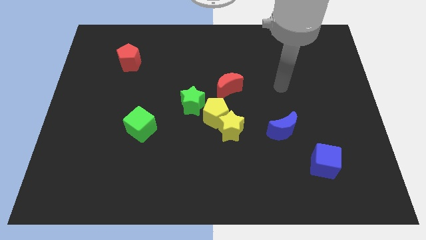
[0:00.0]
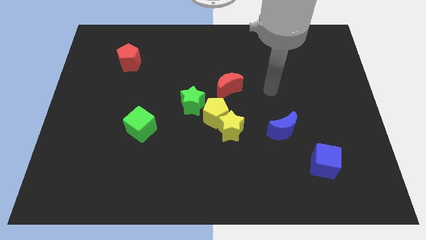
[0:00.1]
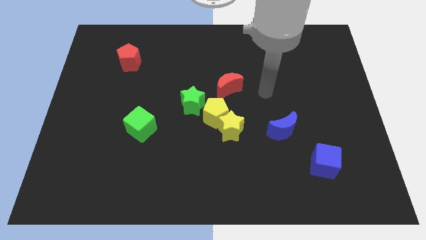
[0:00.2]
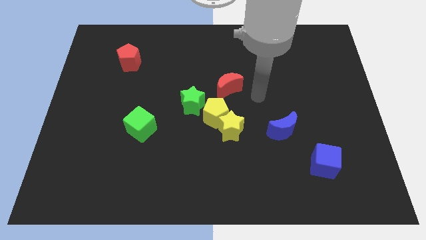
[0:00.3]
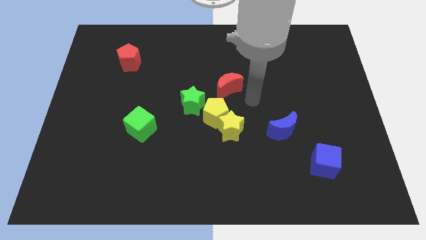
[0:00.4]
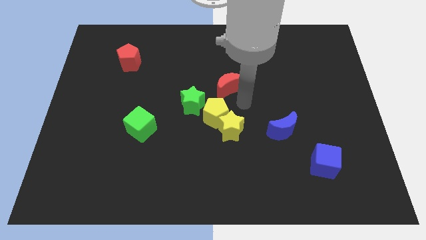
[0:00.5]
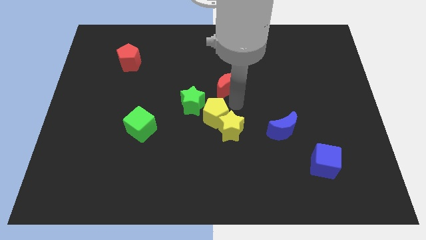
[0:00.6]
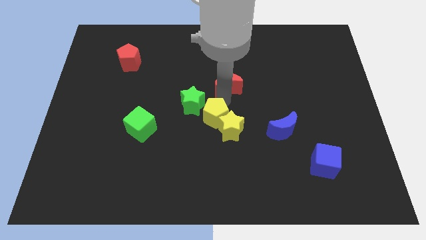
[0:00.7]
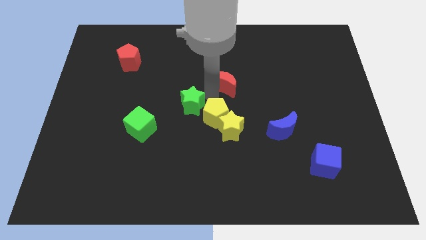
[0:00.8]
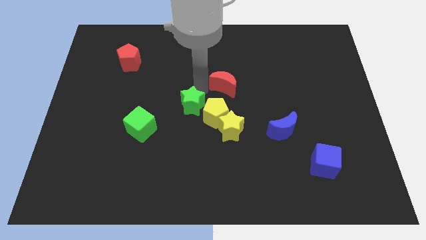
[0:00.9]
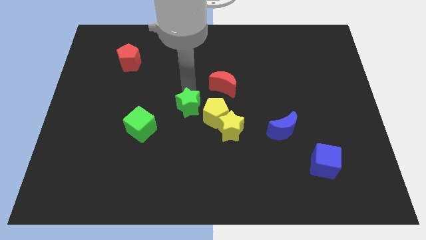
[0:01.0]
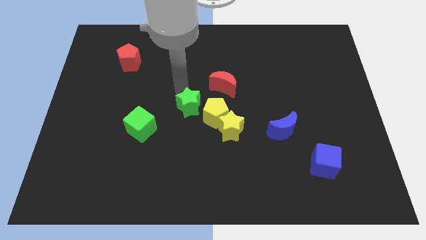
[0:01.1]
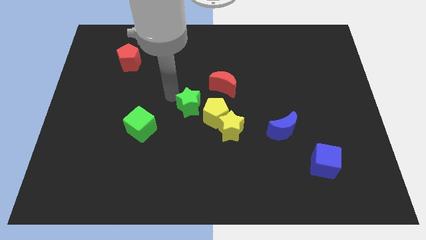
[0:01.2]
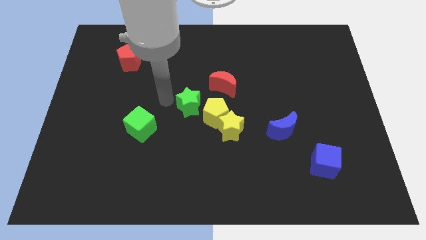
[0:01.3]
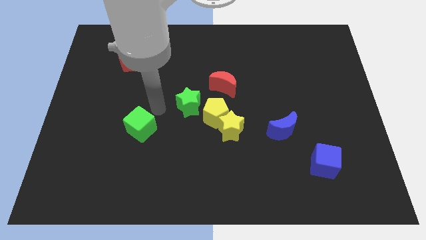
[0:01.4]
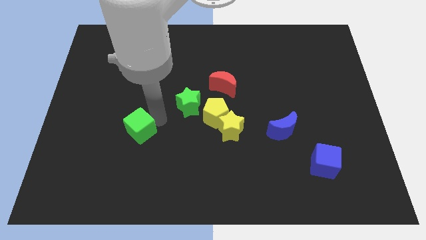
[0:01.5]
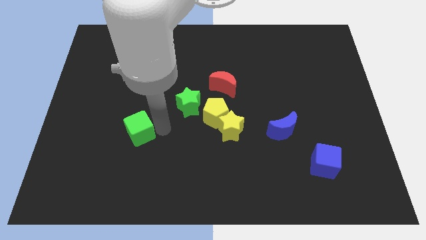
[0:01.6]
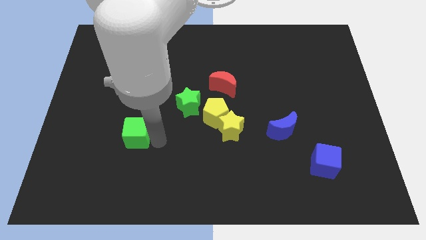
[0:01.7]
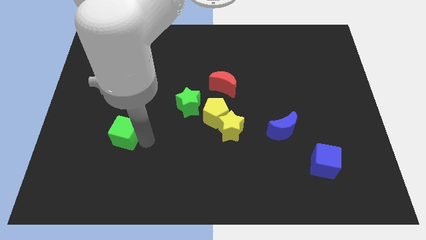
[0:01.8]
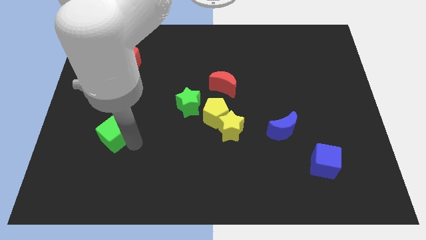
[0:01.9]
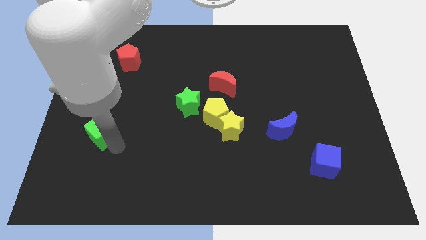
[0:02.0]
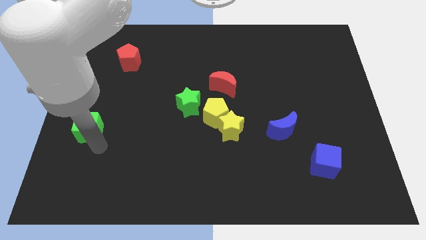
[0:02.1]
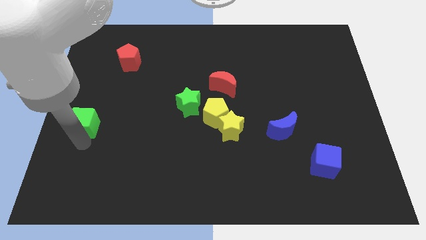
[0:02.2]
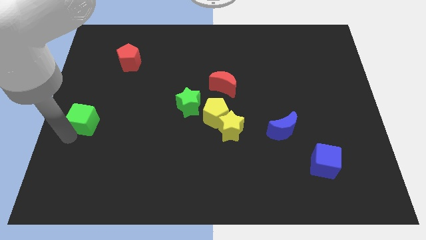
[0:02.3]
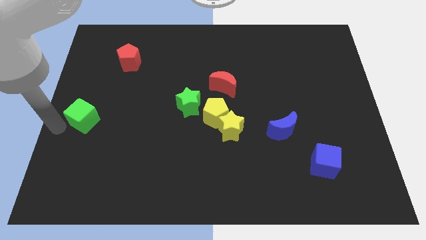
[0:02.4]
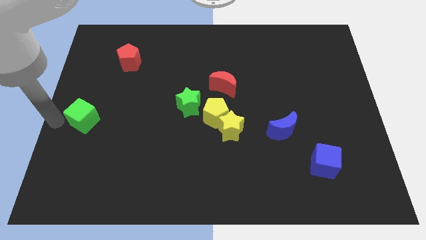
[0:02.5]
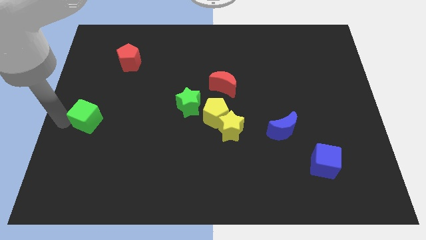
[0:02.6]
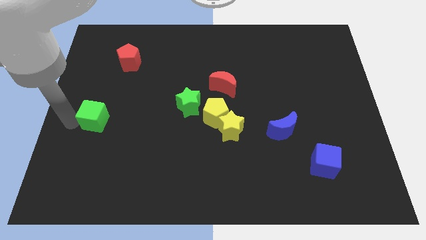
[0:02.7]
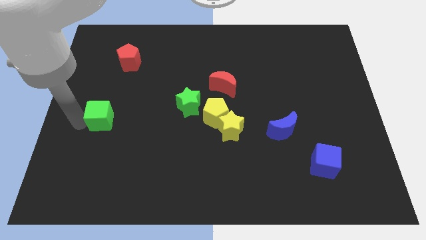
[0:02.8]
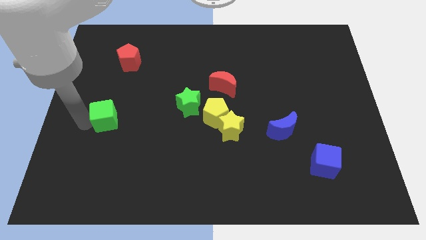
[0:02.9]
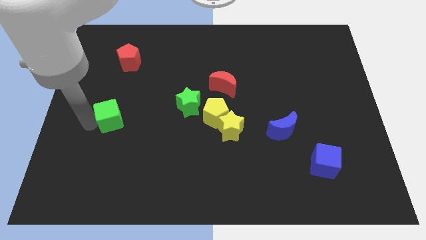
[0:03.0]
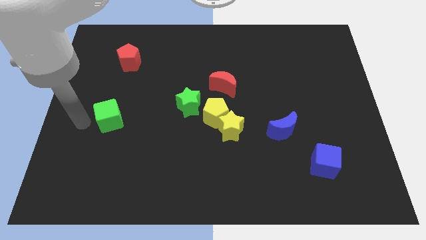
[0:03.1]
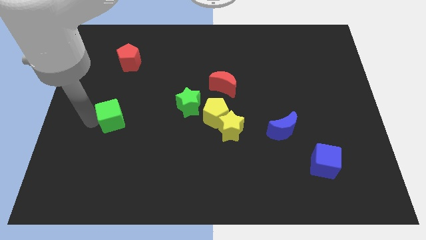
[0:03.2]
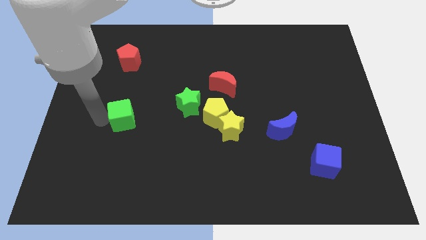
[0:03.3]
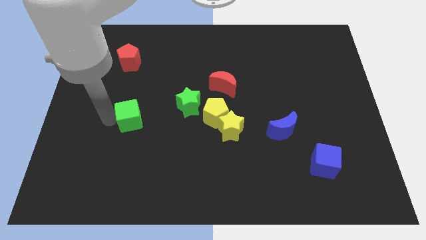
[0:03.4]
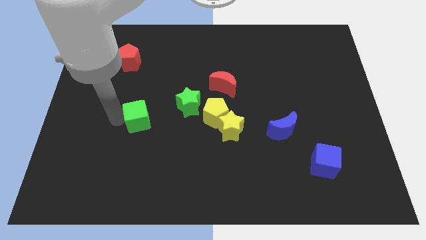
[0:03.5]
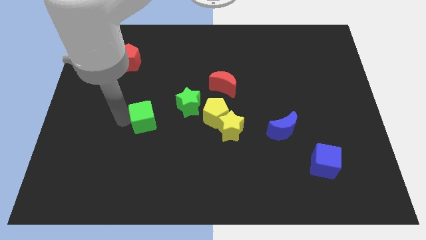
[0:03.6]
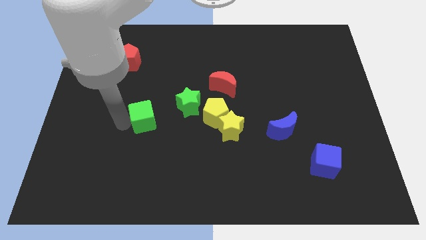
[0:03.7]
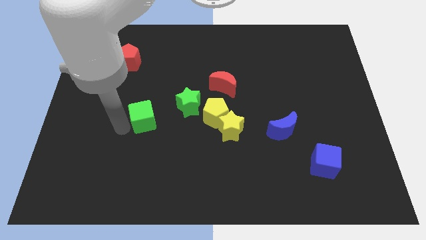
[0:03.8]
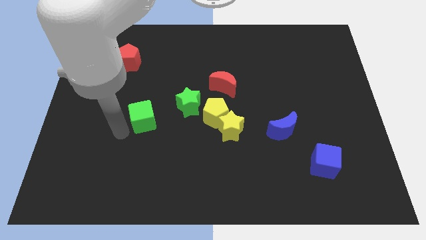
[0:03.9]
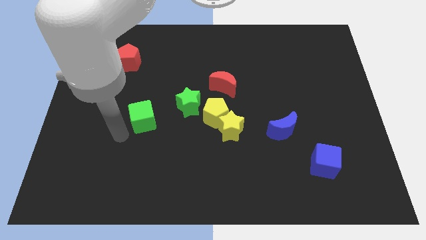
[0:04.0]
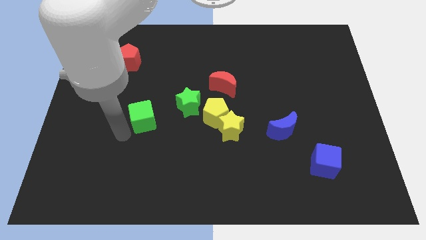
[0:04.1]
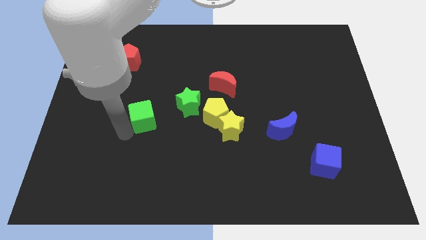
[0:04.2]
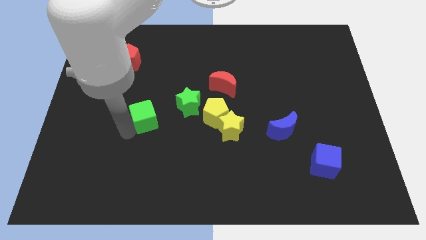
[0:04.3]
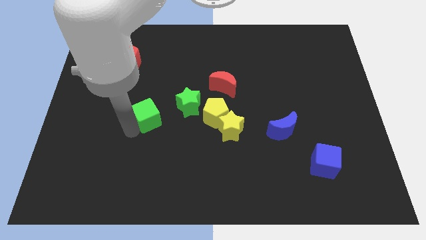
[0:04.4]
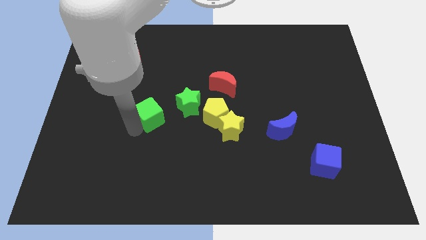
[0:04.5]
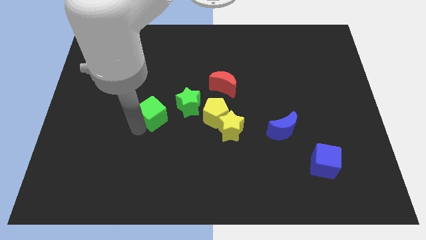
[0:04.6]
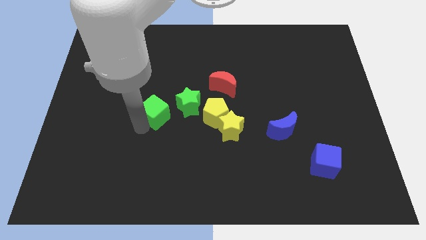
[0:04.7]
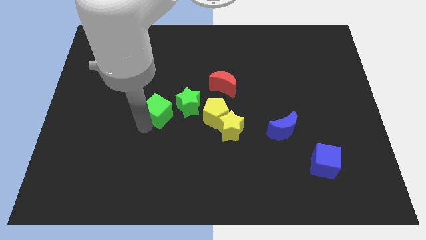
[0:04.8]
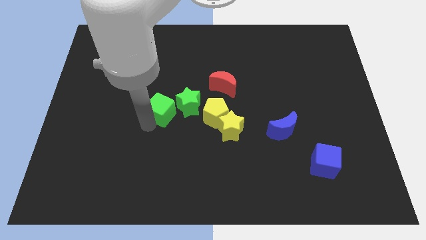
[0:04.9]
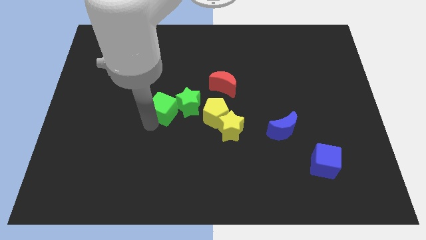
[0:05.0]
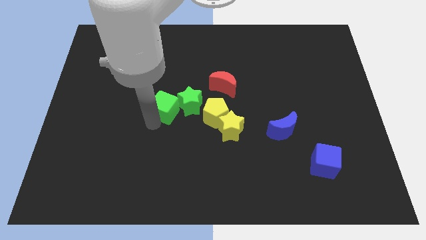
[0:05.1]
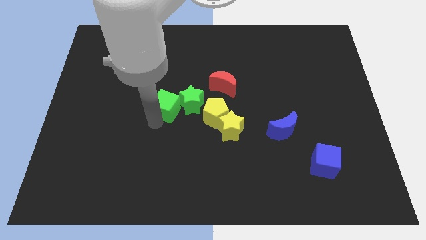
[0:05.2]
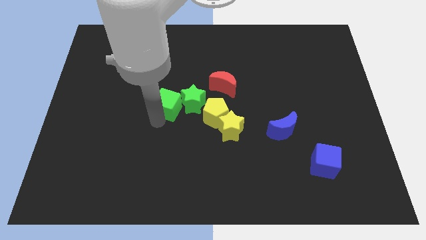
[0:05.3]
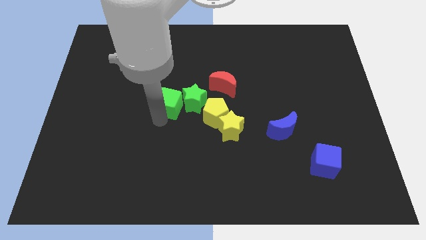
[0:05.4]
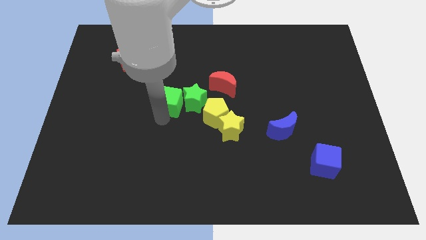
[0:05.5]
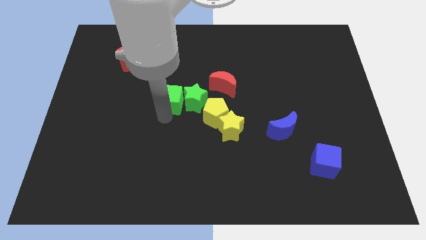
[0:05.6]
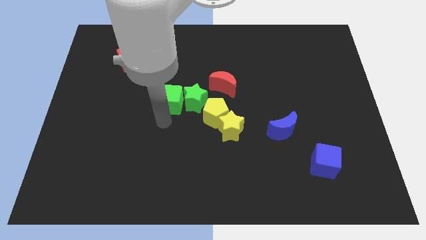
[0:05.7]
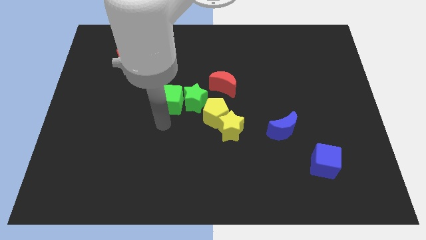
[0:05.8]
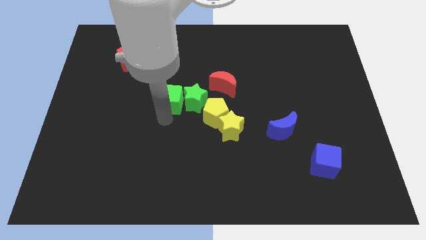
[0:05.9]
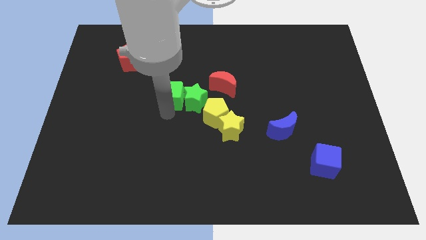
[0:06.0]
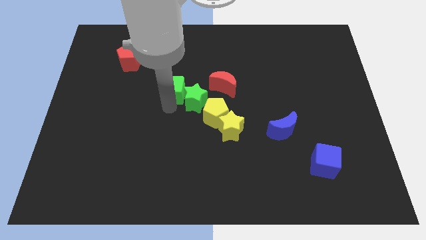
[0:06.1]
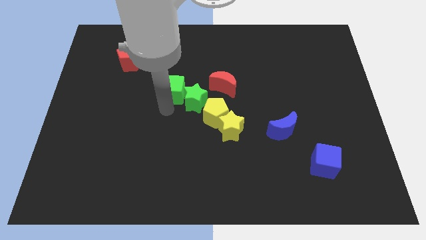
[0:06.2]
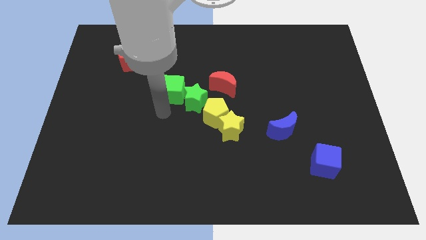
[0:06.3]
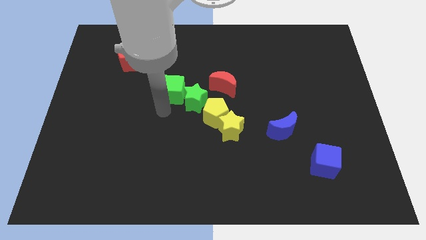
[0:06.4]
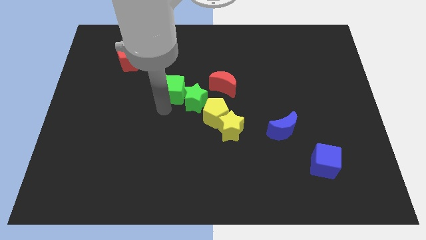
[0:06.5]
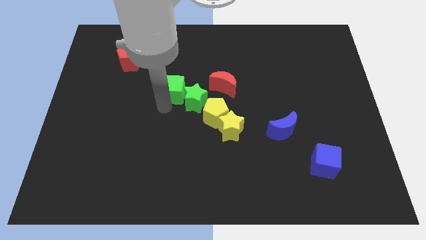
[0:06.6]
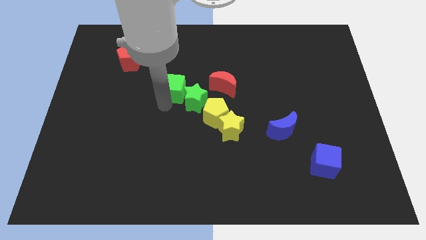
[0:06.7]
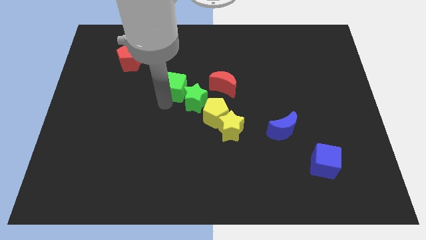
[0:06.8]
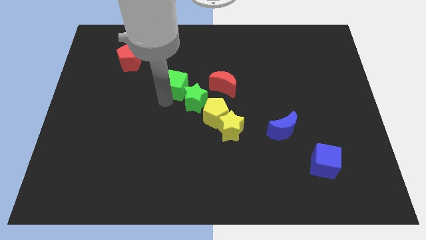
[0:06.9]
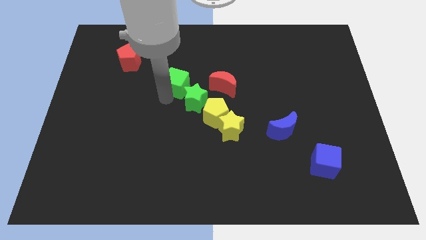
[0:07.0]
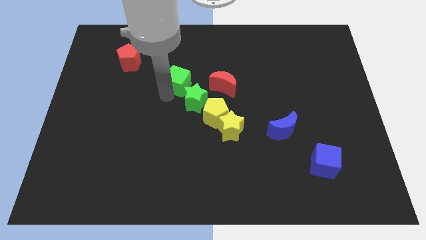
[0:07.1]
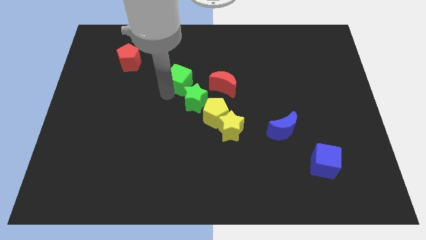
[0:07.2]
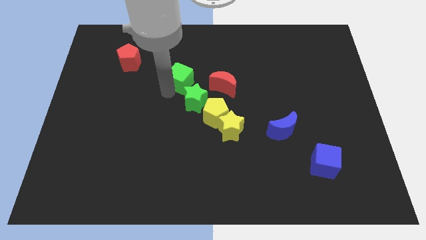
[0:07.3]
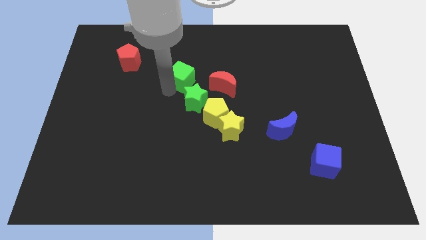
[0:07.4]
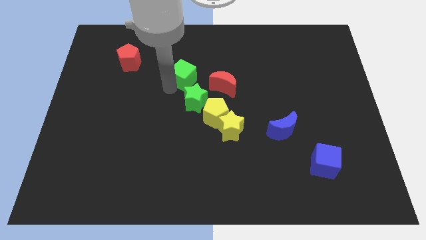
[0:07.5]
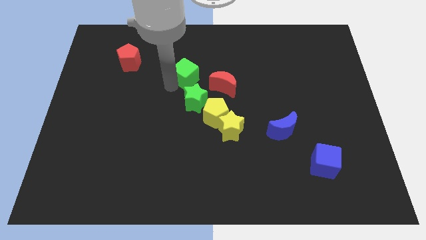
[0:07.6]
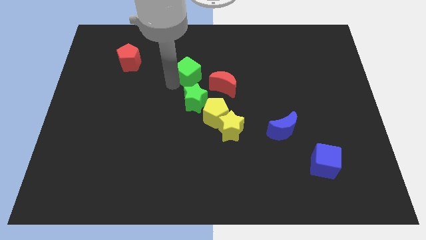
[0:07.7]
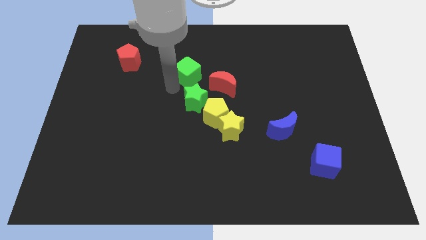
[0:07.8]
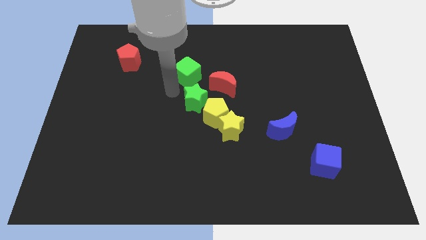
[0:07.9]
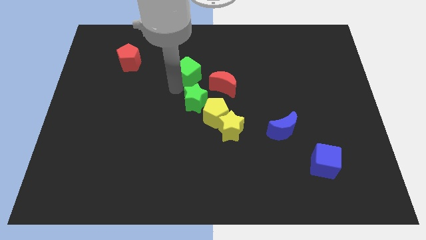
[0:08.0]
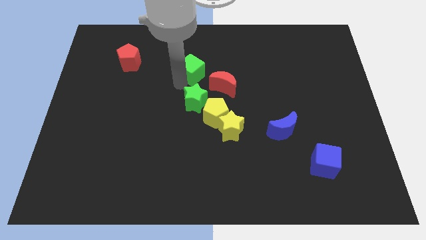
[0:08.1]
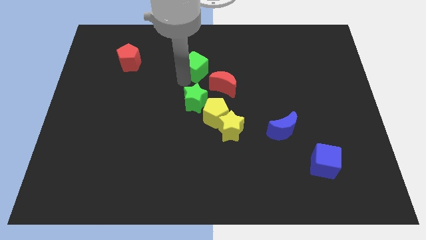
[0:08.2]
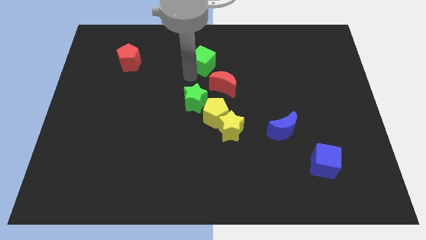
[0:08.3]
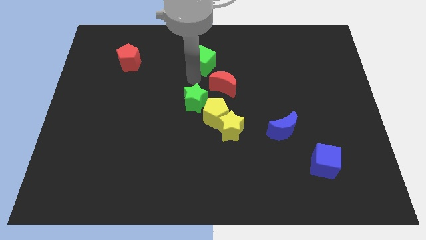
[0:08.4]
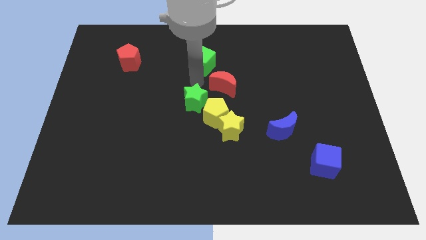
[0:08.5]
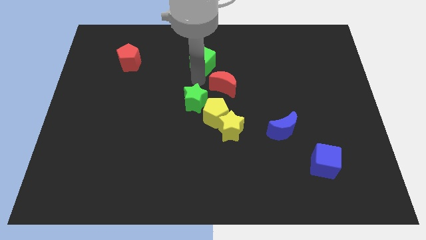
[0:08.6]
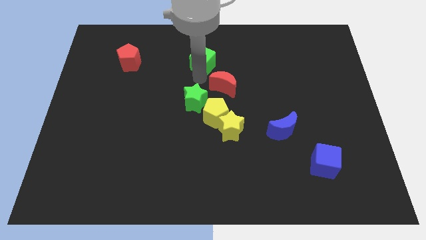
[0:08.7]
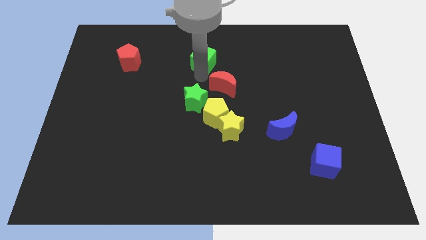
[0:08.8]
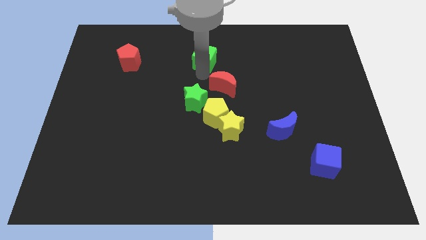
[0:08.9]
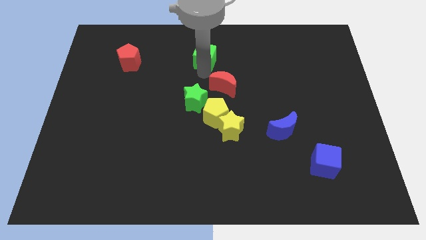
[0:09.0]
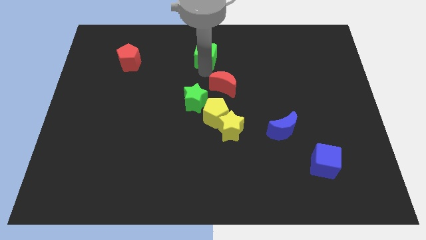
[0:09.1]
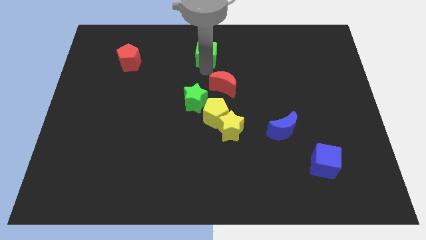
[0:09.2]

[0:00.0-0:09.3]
push the green cube to the top side
